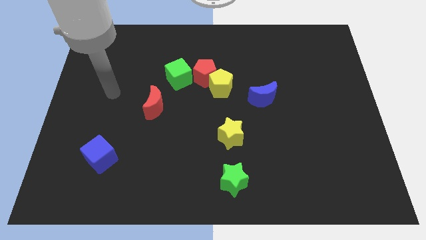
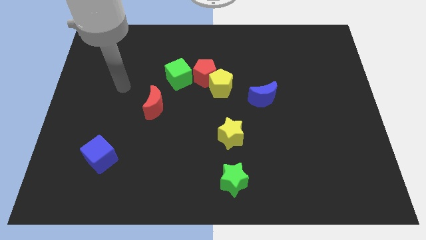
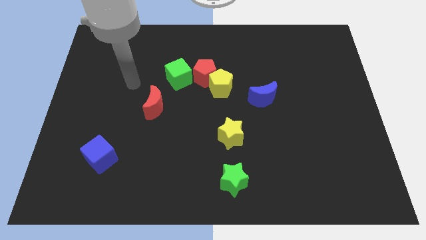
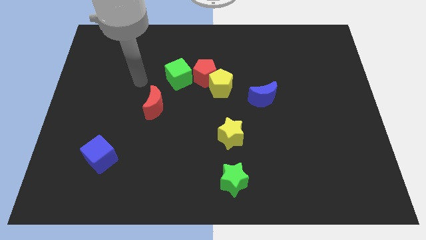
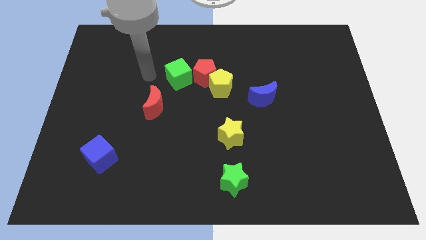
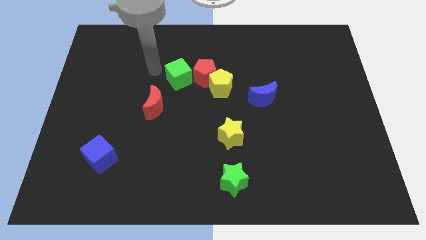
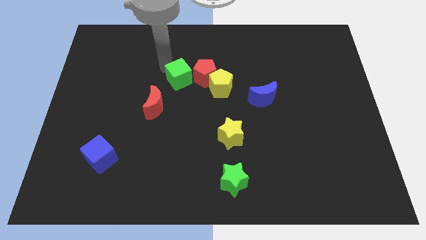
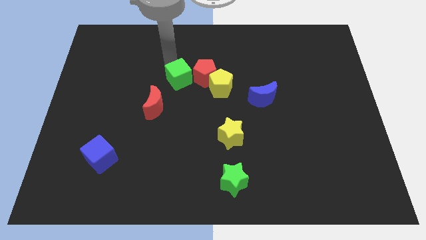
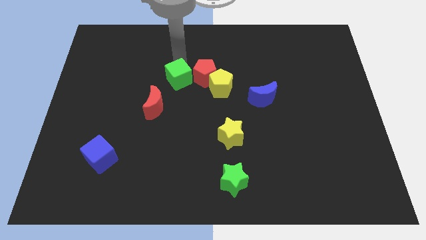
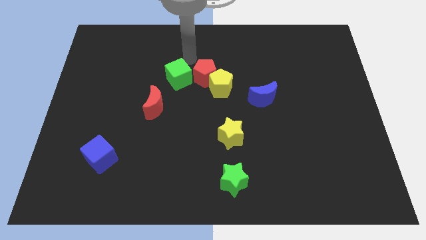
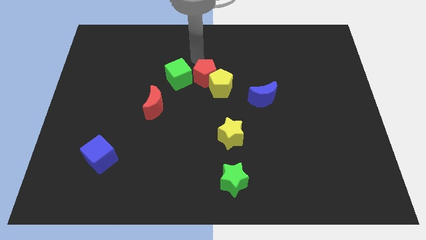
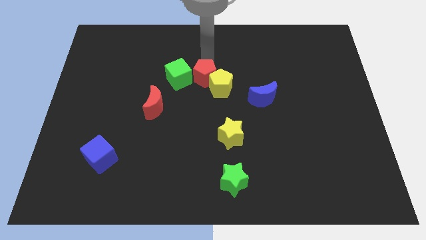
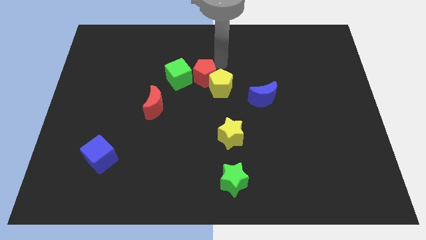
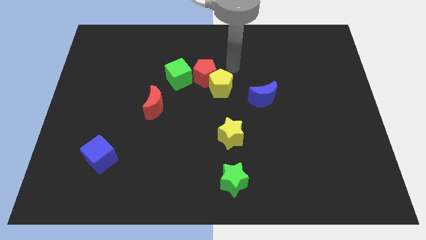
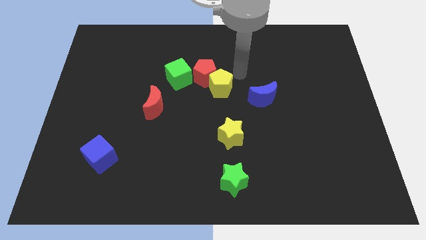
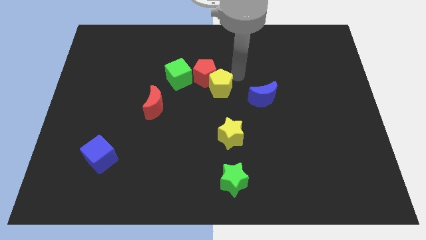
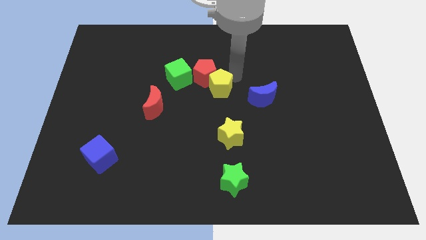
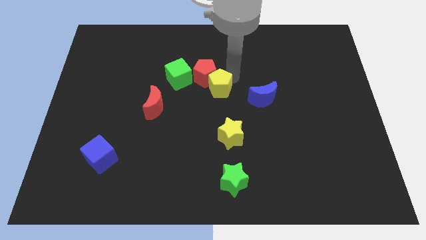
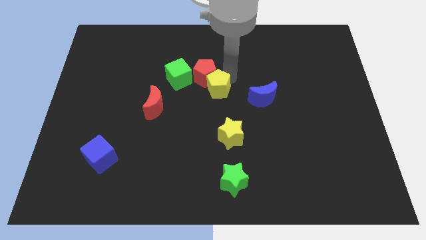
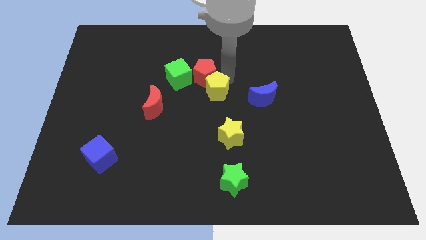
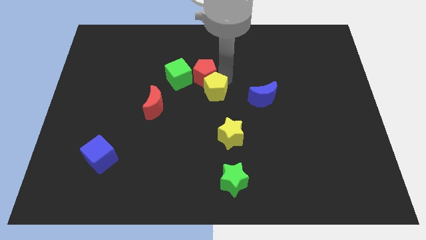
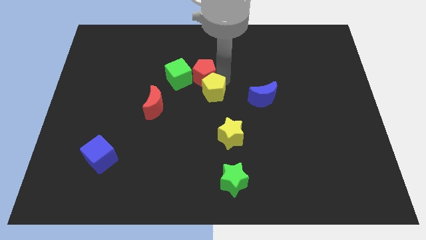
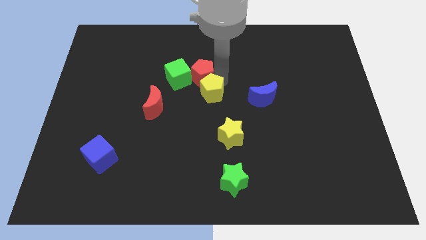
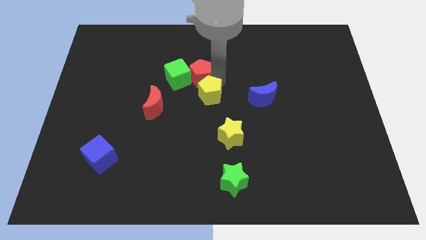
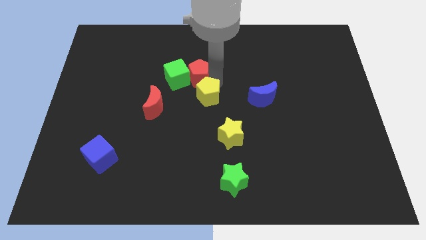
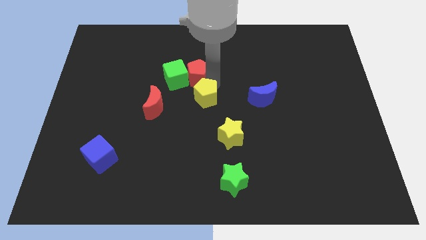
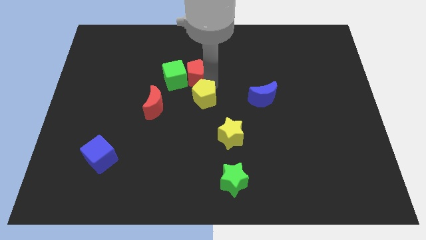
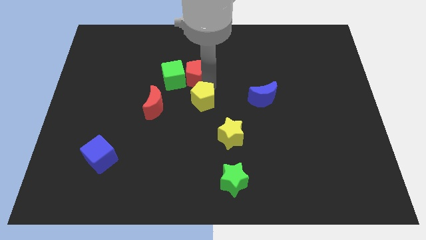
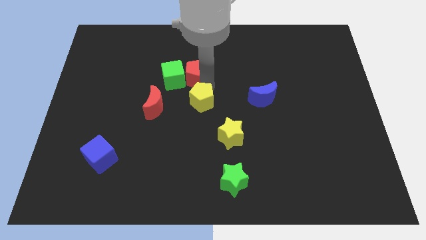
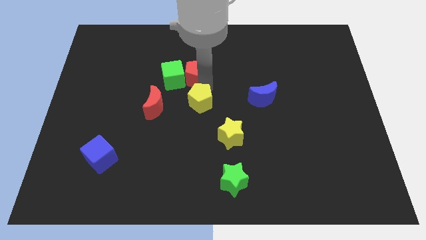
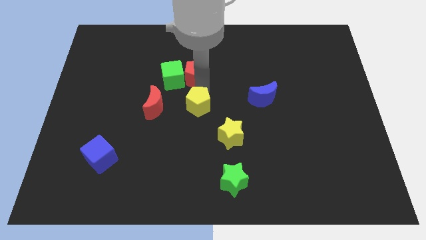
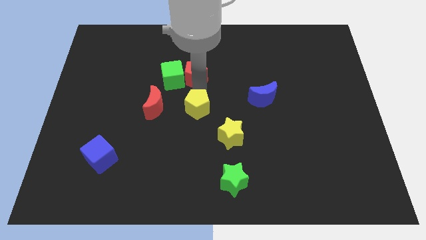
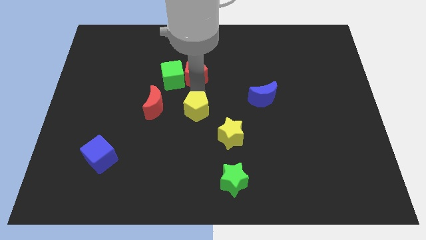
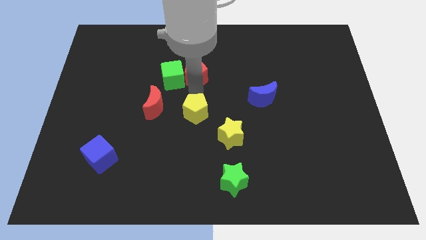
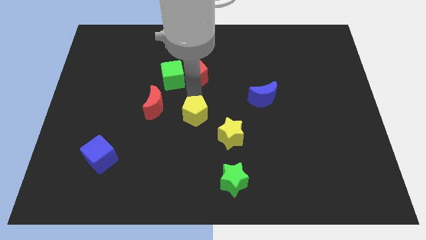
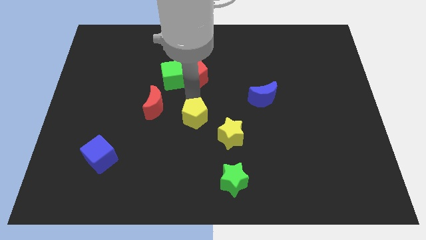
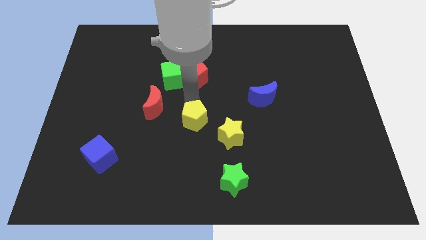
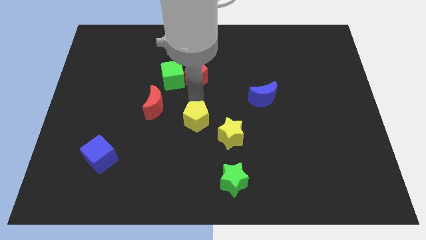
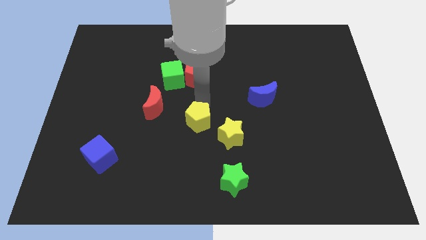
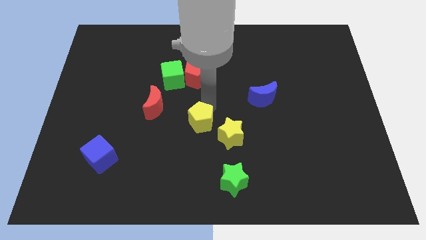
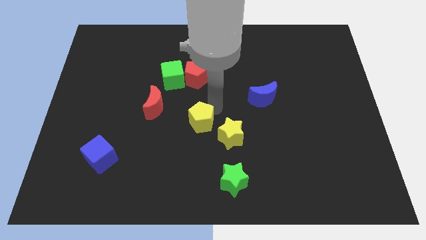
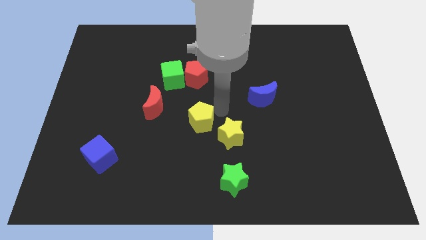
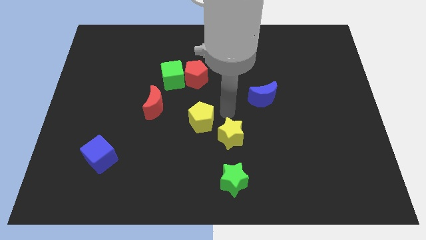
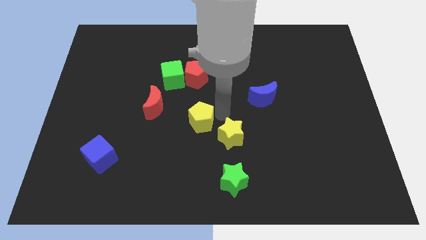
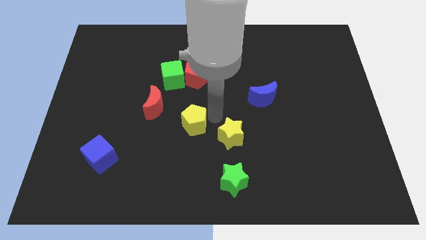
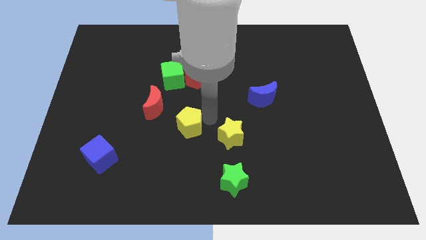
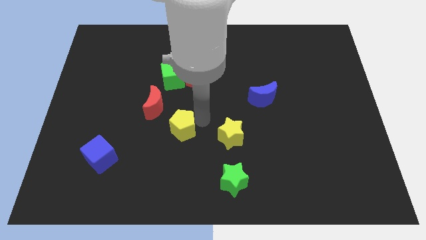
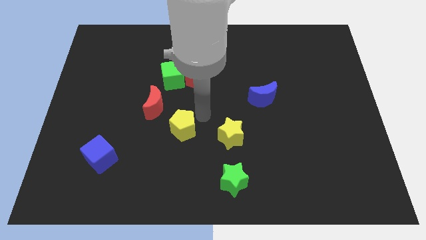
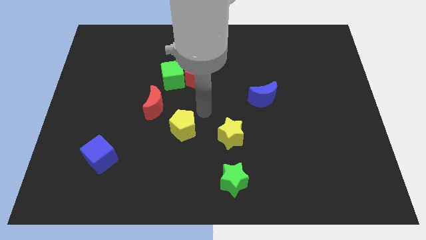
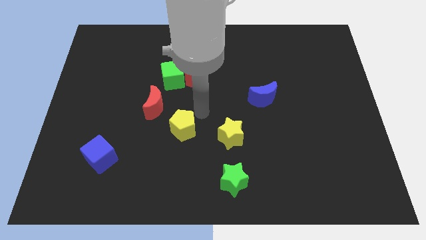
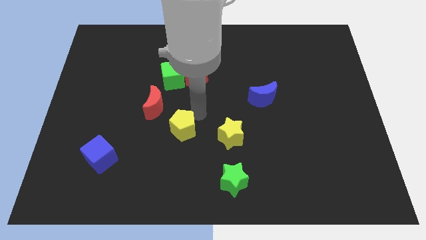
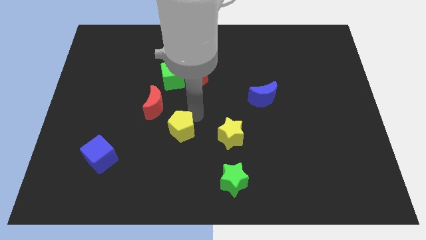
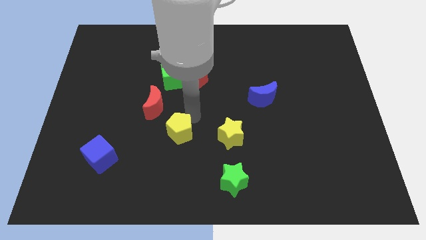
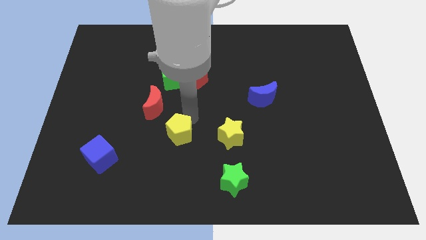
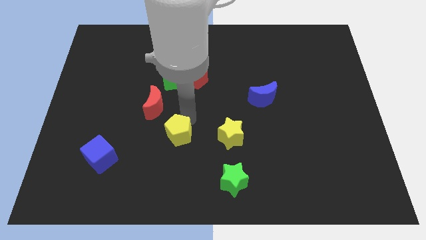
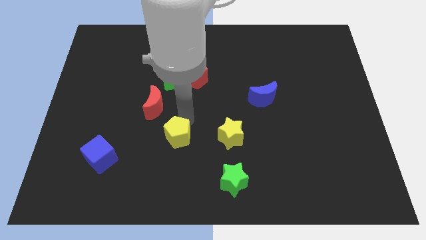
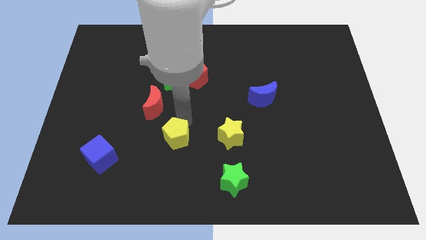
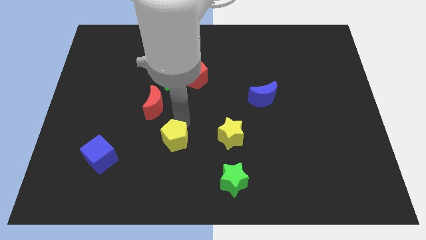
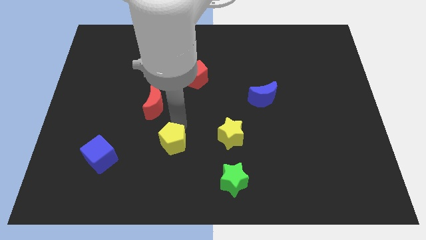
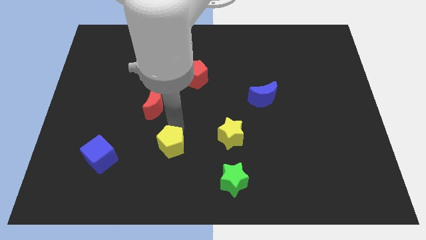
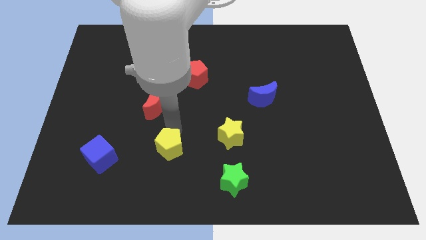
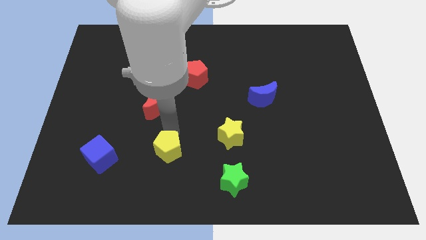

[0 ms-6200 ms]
move the yellow pentagon down and left diagonally

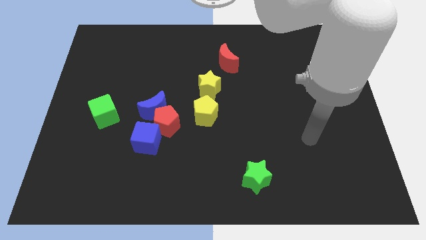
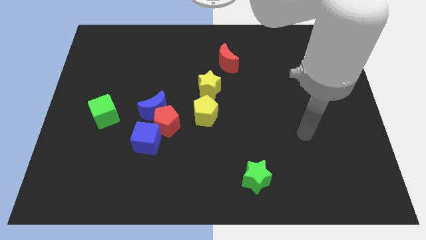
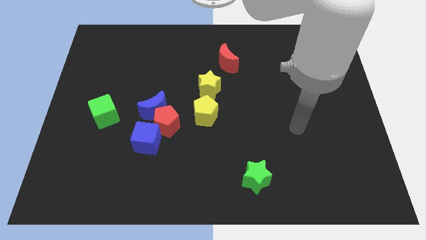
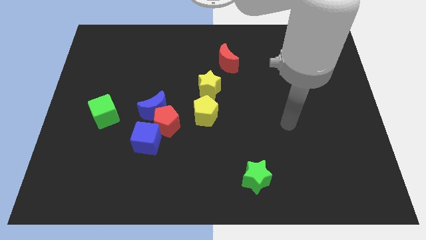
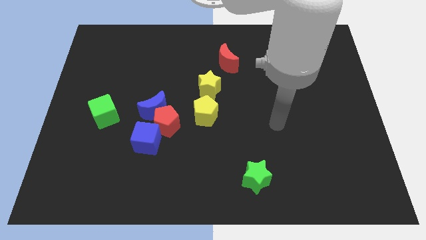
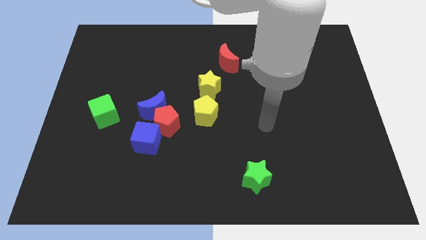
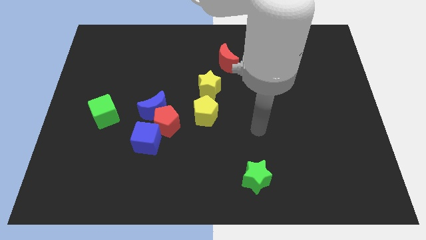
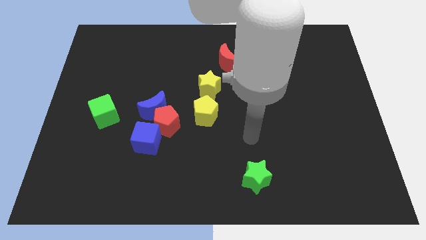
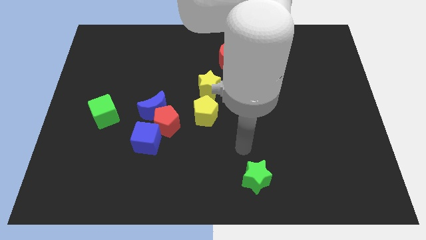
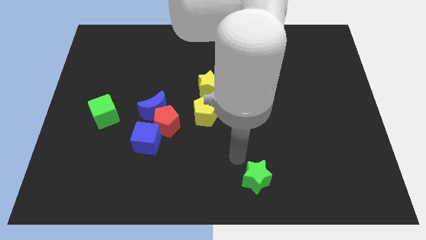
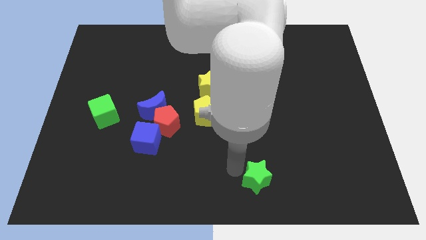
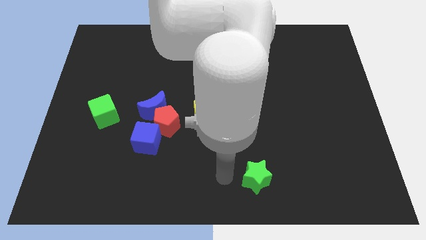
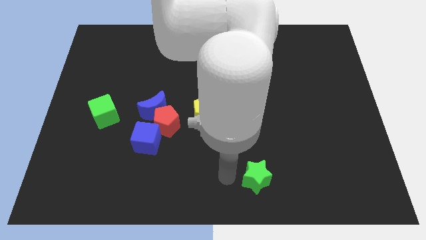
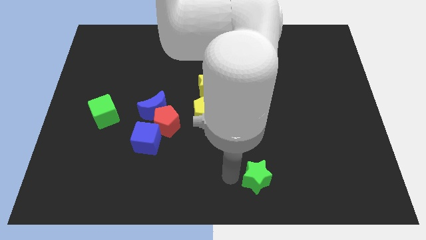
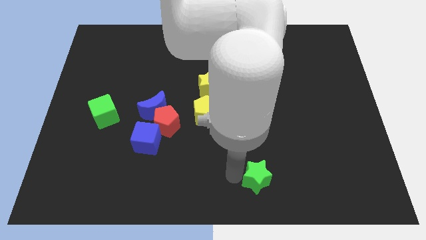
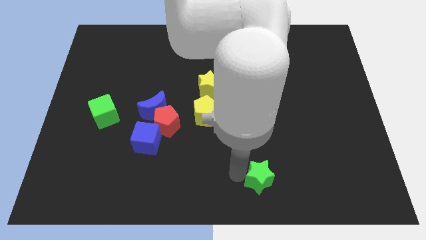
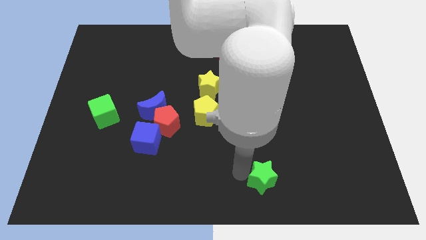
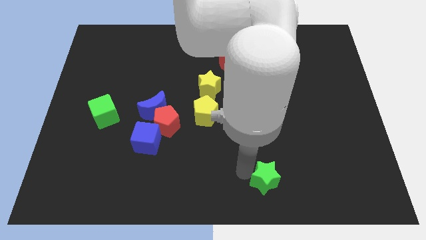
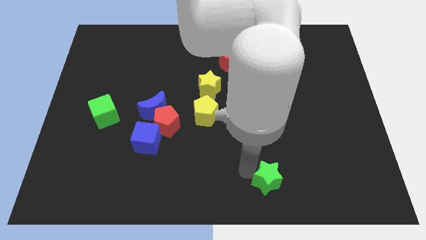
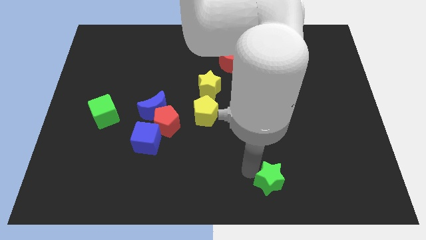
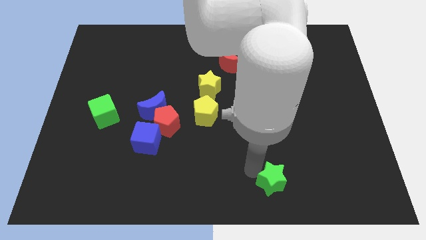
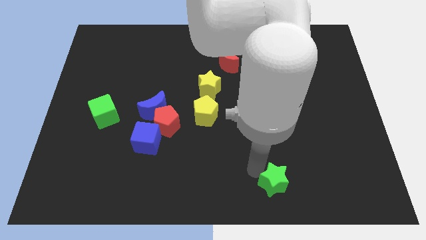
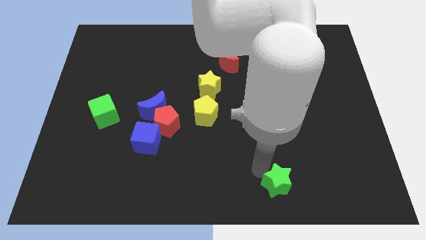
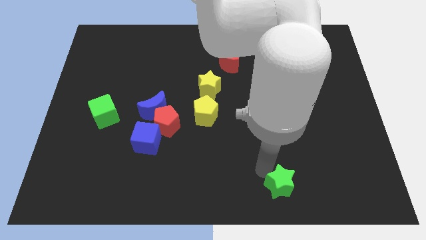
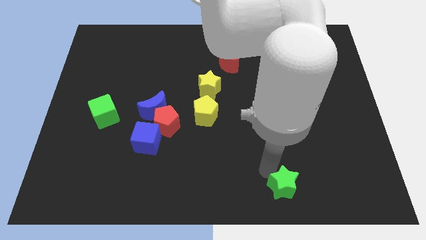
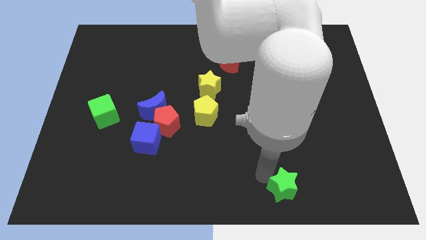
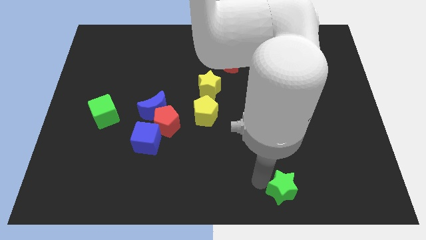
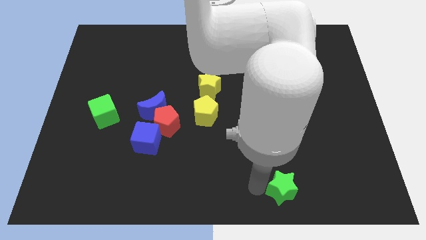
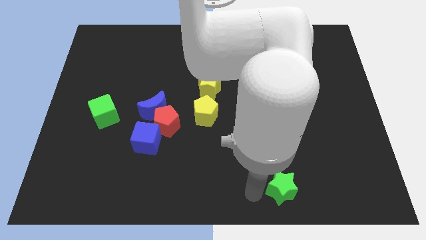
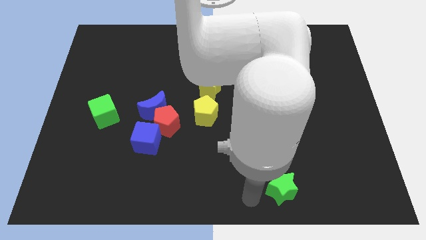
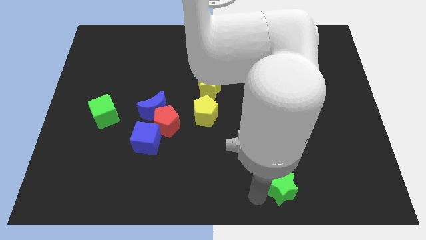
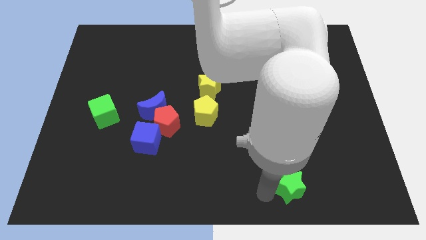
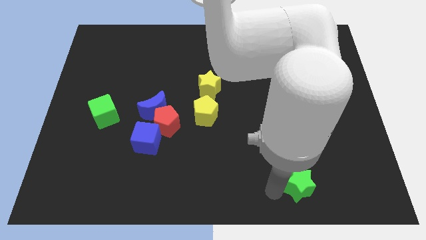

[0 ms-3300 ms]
push the green star right a little bit
